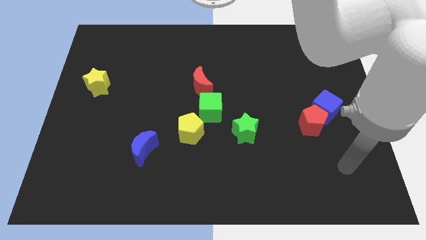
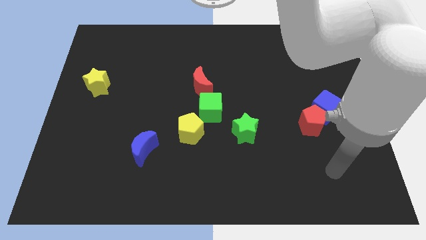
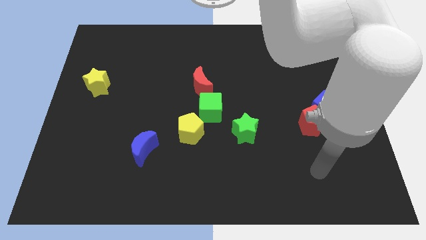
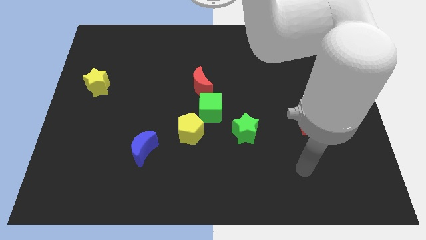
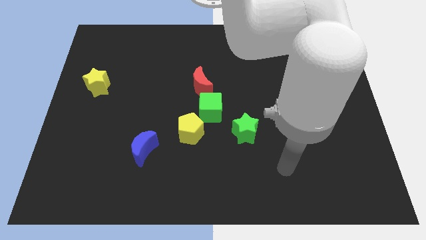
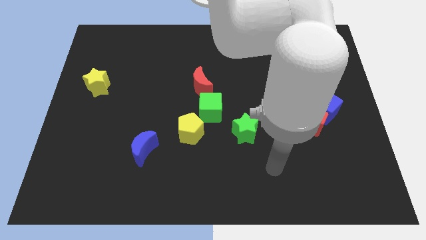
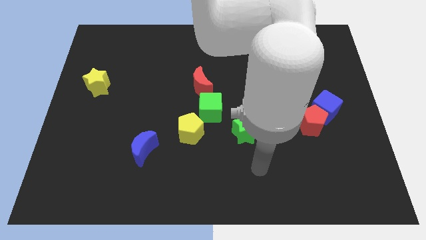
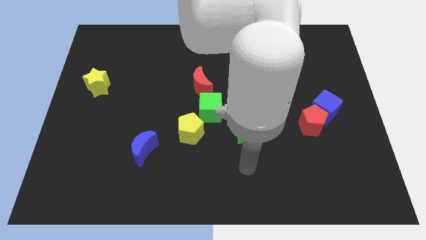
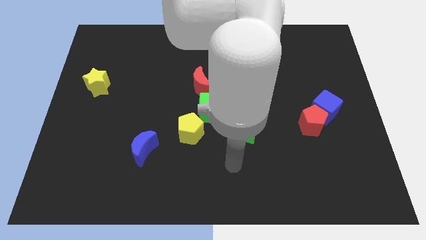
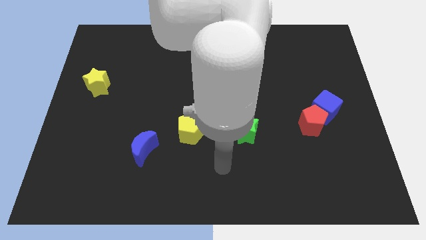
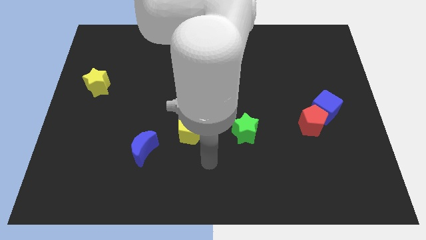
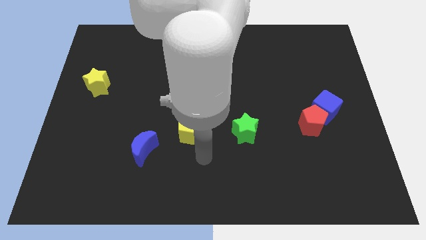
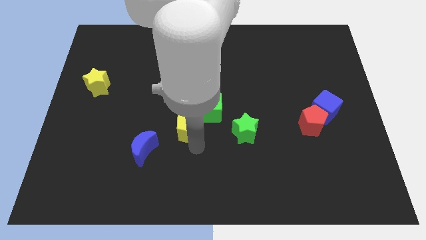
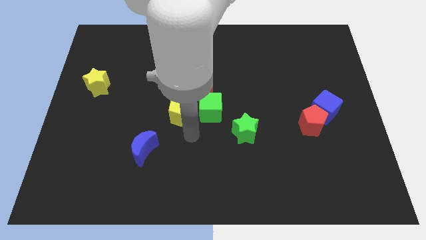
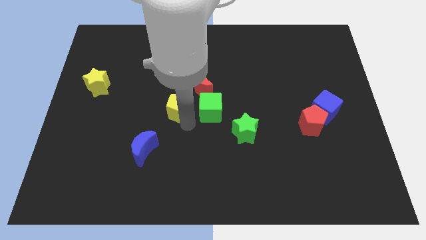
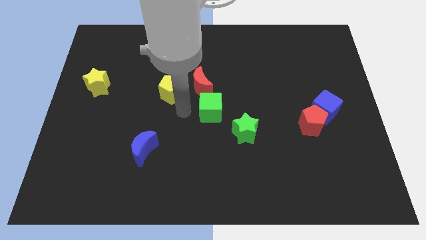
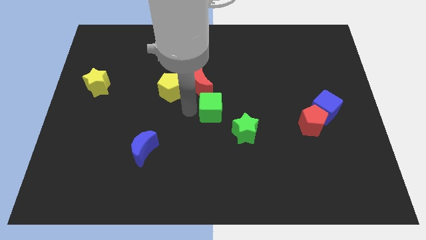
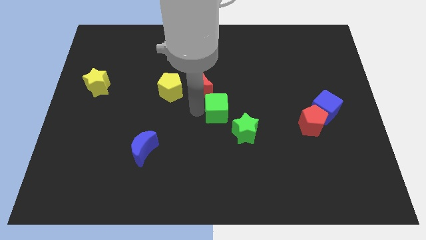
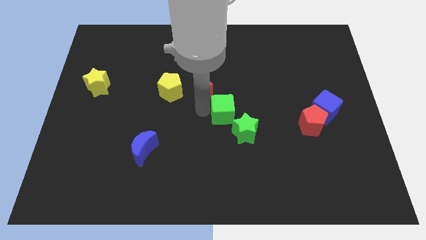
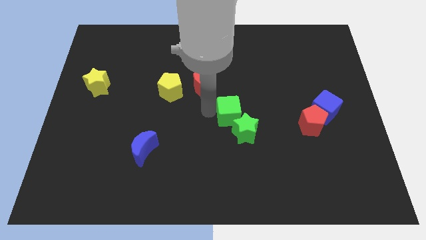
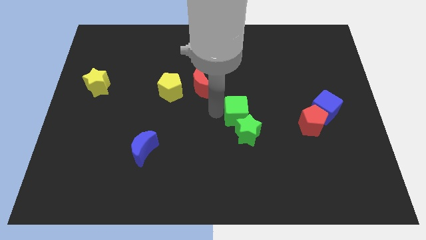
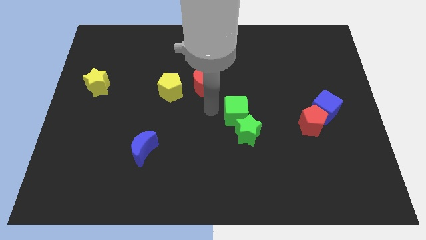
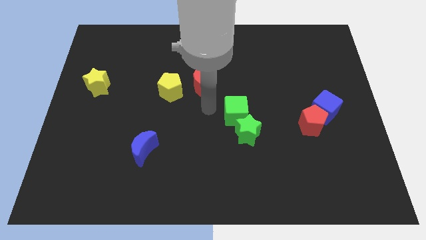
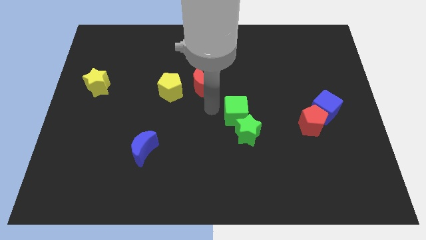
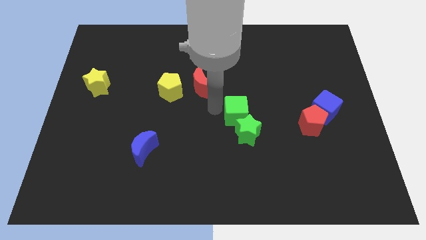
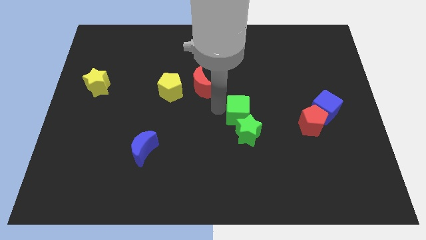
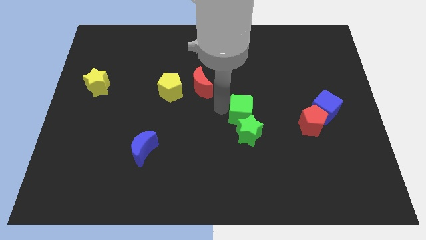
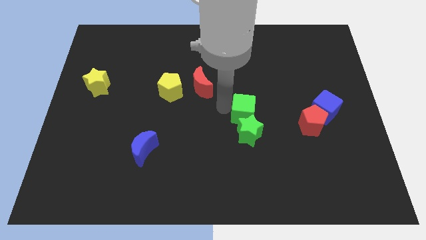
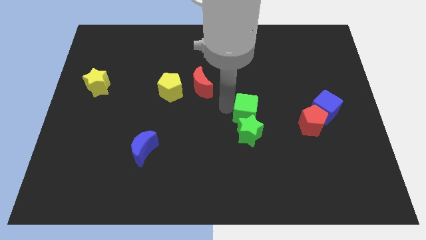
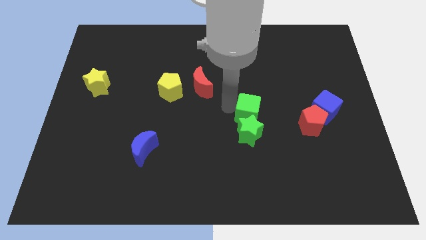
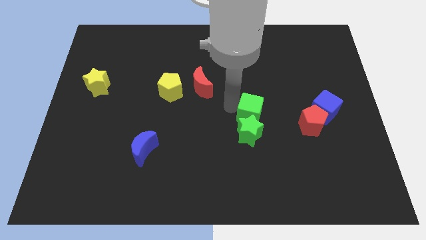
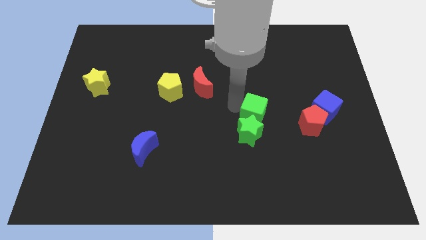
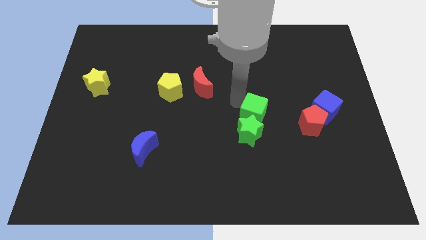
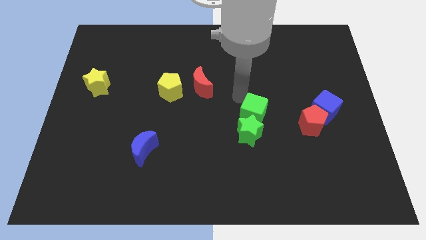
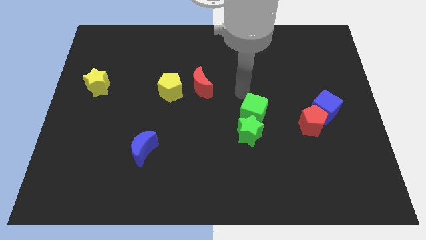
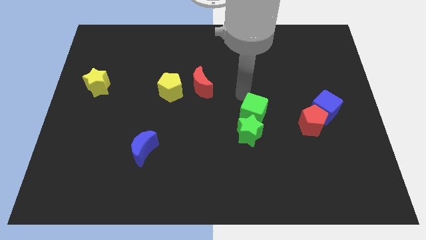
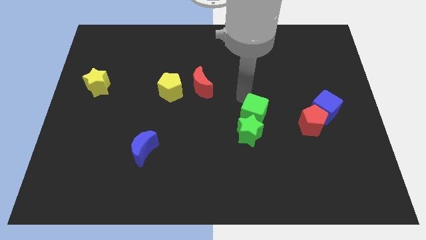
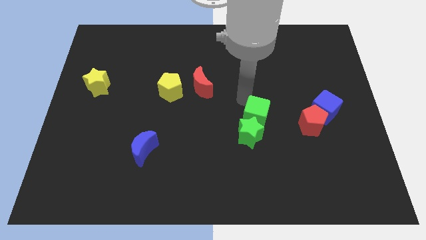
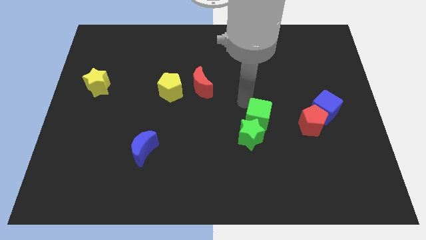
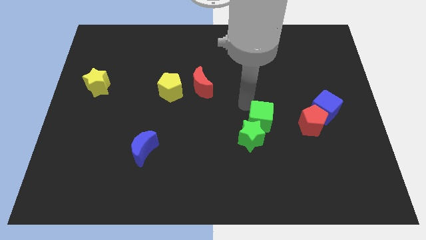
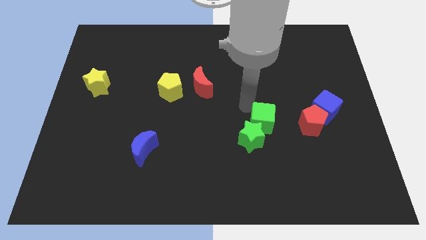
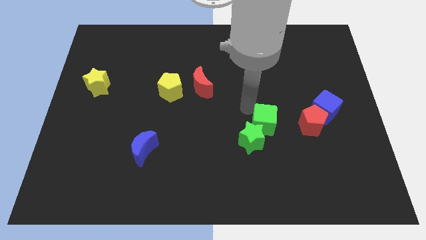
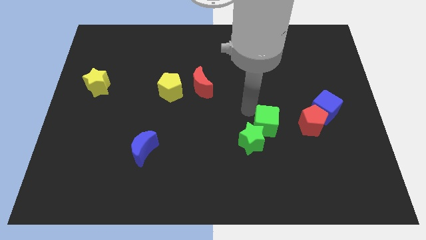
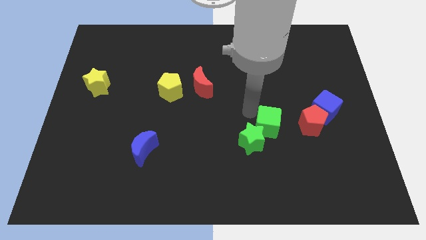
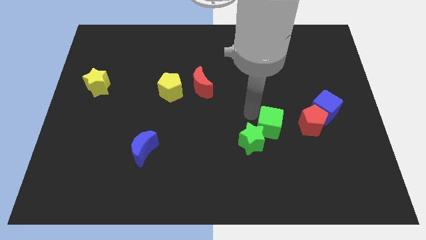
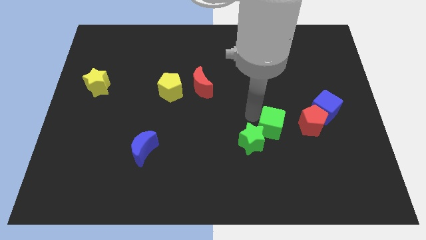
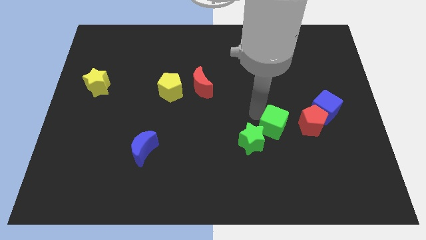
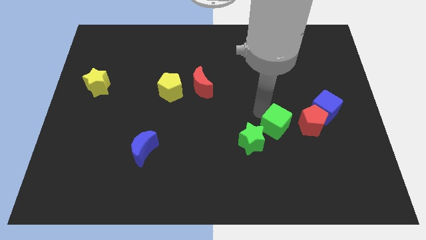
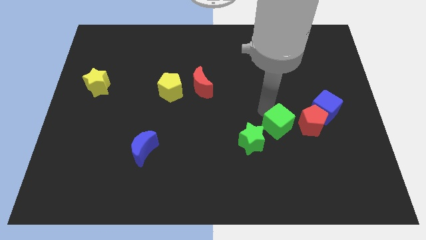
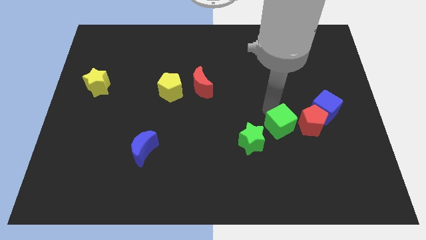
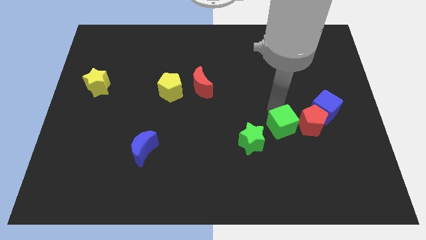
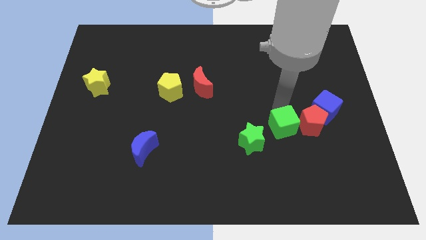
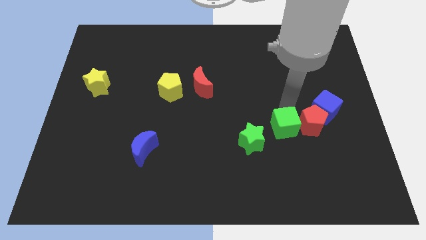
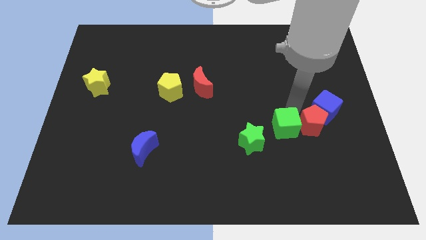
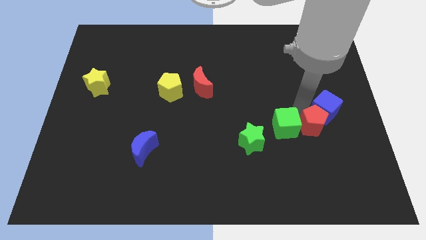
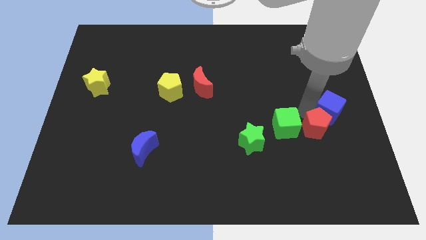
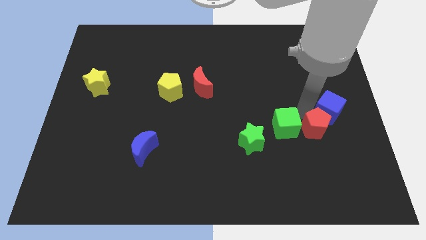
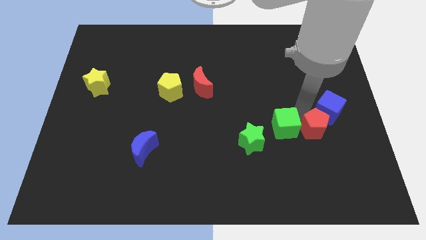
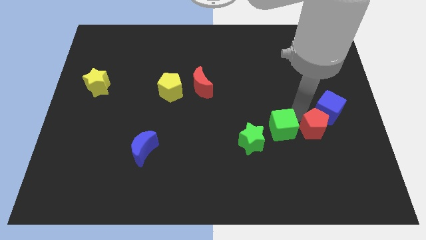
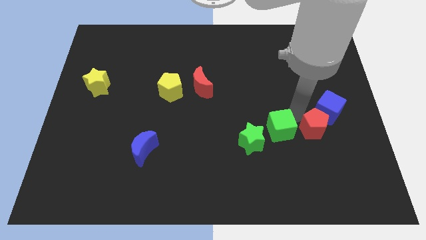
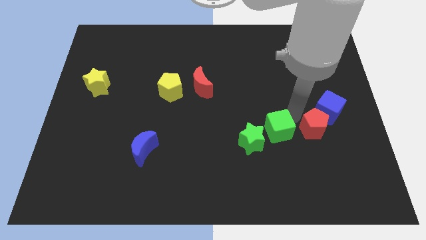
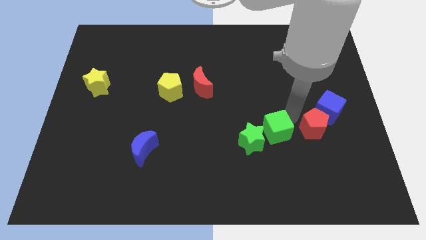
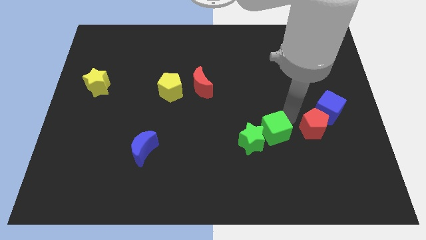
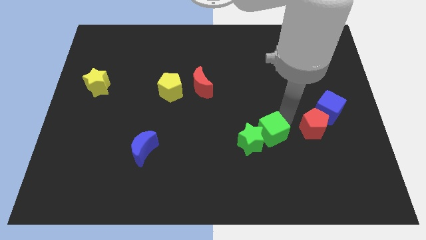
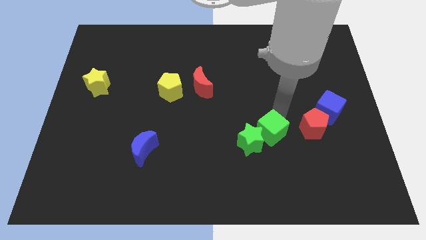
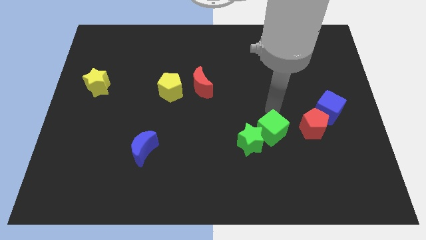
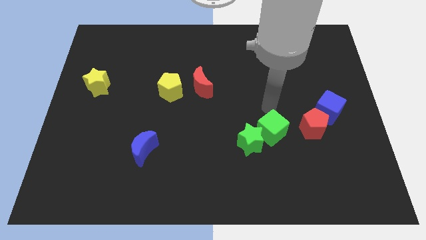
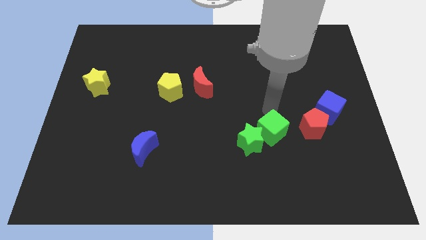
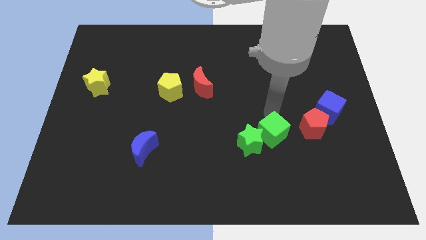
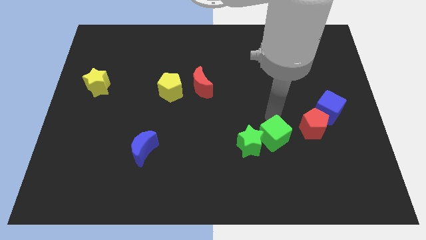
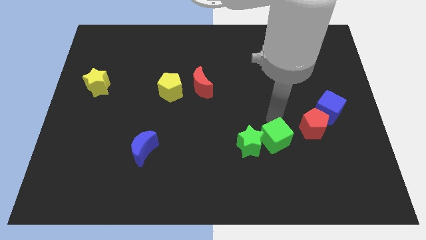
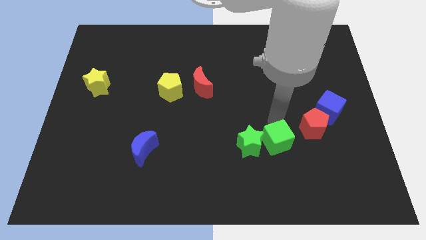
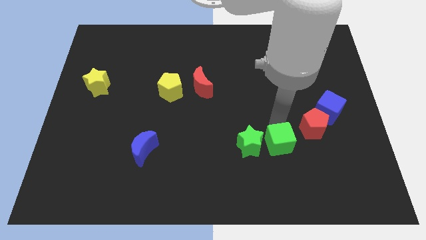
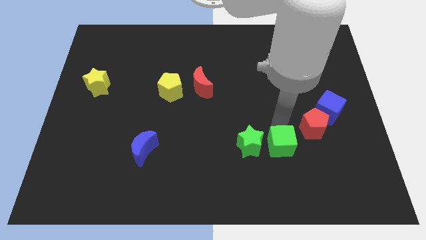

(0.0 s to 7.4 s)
slide the green cube to the bottom right side of the green star
